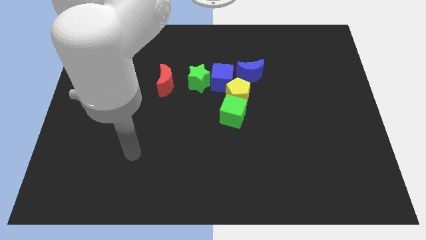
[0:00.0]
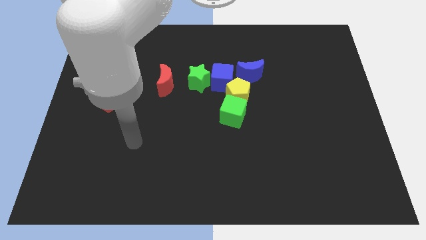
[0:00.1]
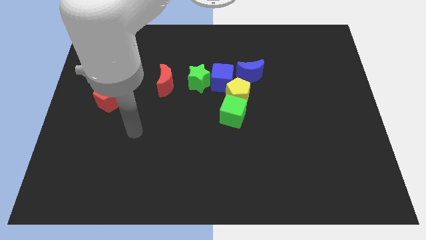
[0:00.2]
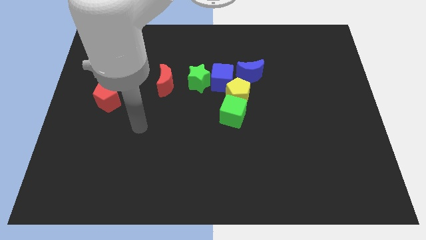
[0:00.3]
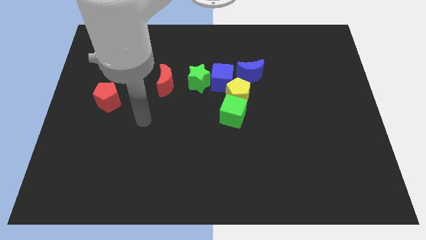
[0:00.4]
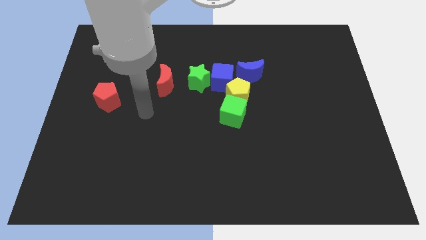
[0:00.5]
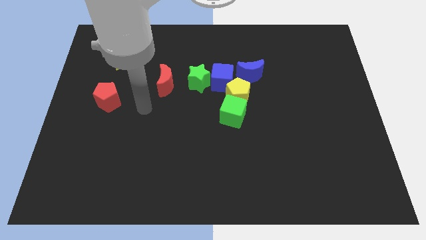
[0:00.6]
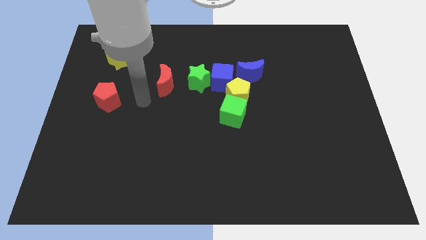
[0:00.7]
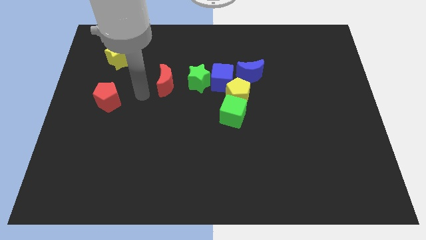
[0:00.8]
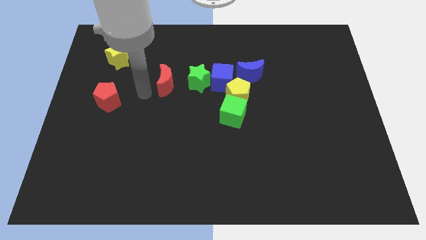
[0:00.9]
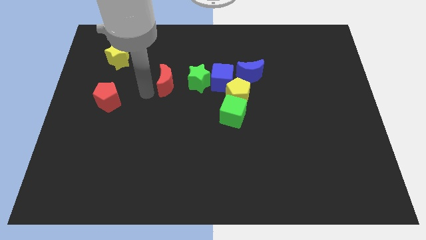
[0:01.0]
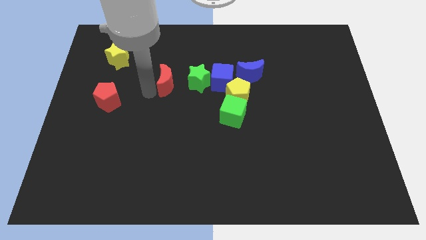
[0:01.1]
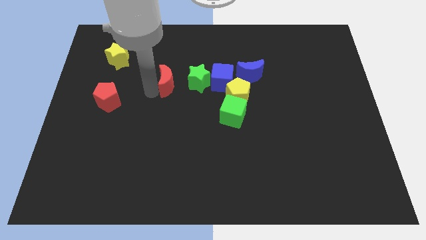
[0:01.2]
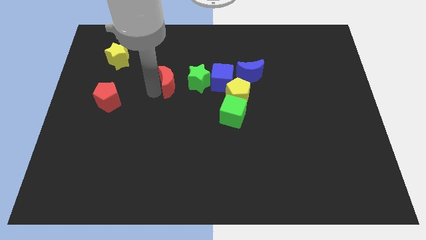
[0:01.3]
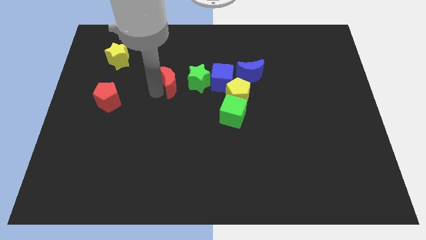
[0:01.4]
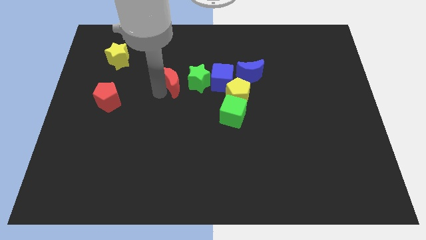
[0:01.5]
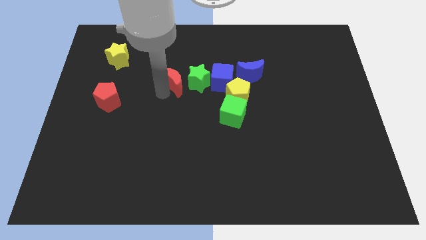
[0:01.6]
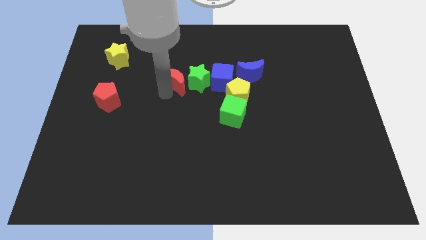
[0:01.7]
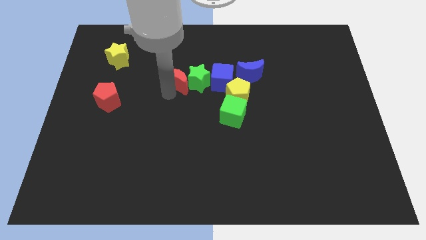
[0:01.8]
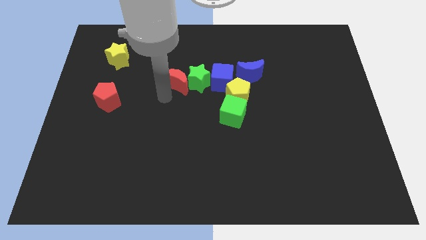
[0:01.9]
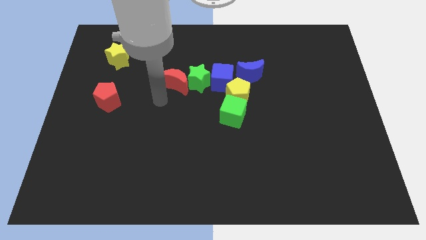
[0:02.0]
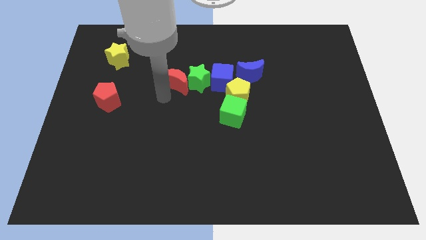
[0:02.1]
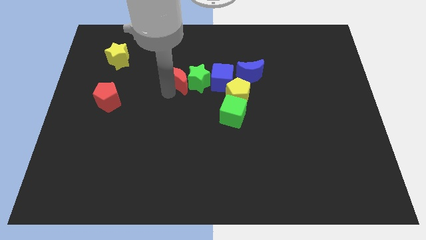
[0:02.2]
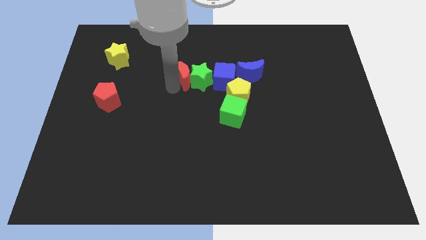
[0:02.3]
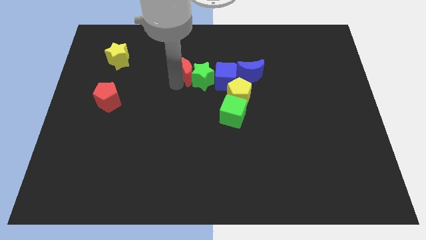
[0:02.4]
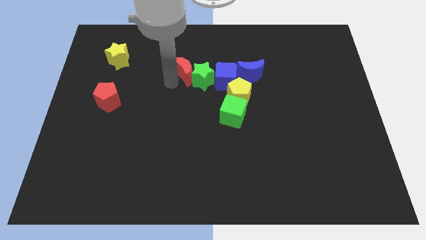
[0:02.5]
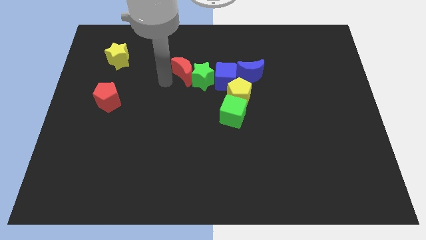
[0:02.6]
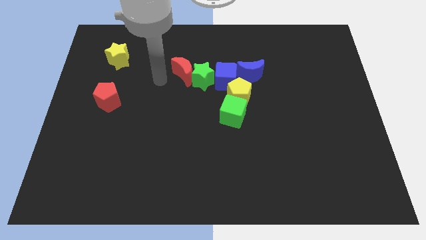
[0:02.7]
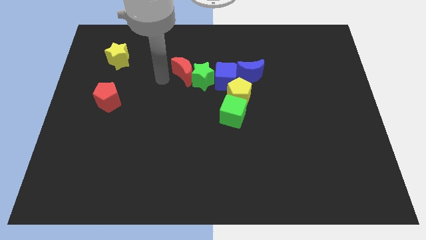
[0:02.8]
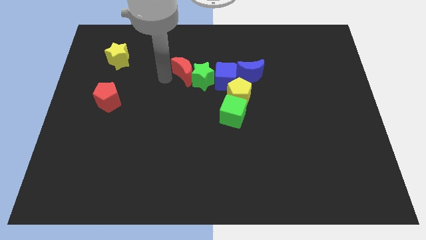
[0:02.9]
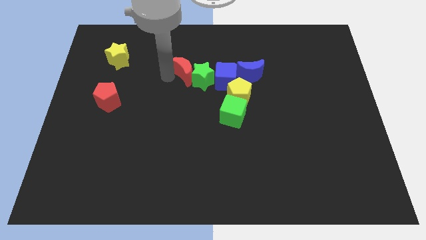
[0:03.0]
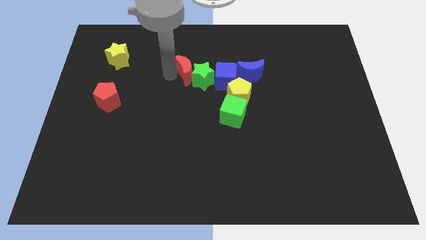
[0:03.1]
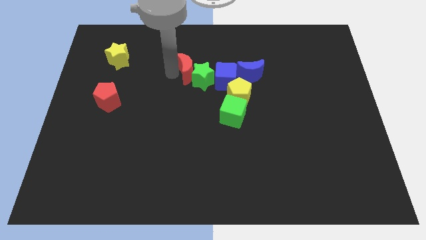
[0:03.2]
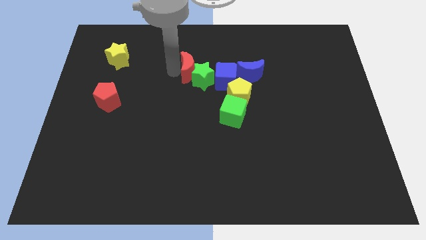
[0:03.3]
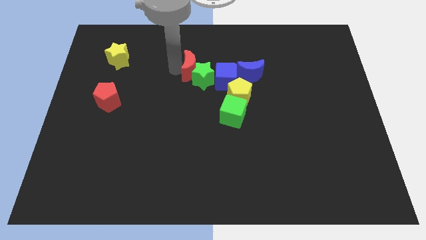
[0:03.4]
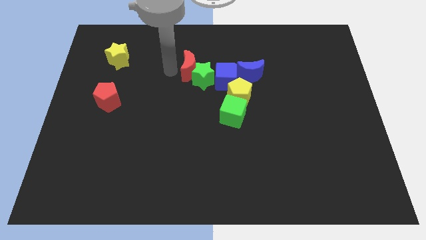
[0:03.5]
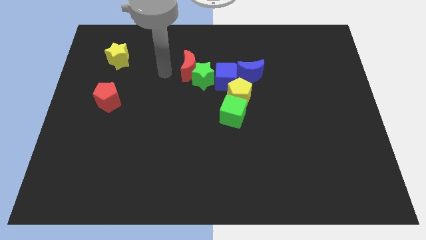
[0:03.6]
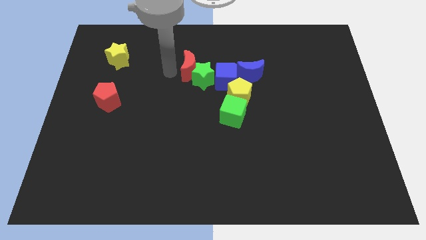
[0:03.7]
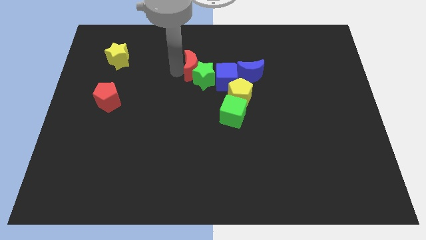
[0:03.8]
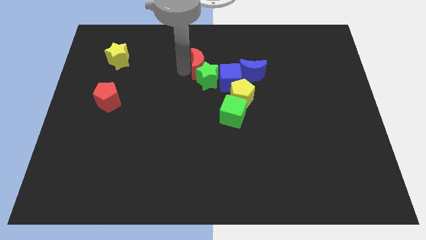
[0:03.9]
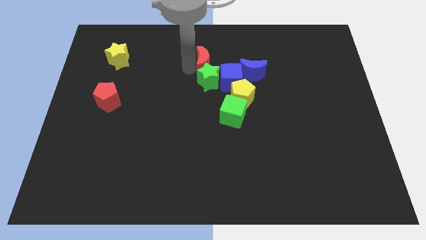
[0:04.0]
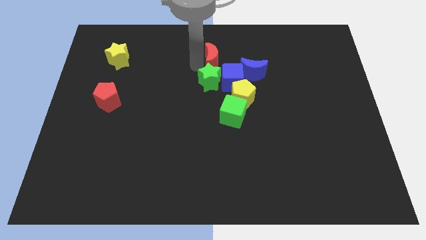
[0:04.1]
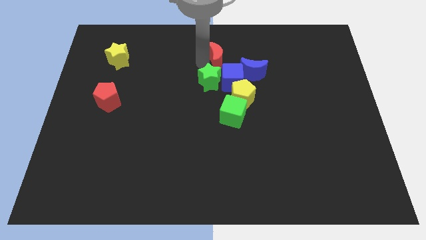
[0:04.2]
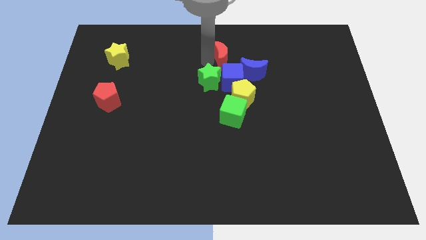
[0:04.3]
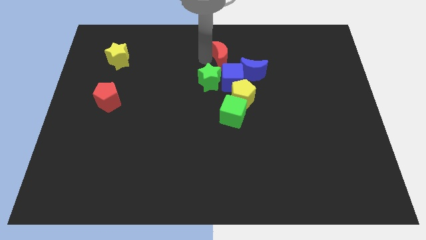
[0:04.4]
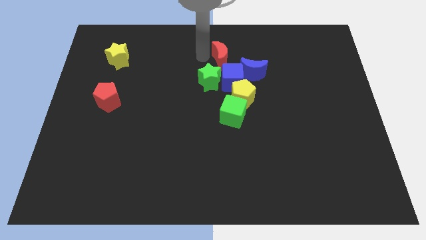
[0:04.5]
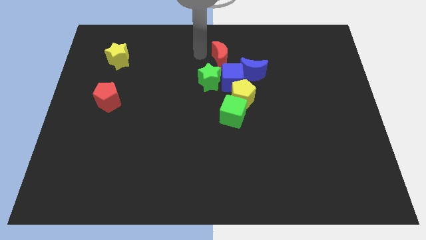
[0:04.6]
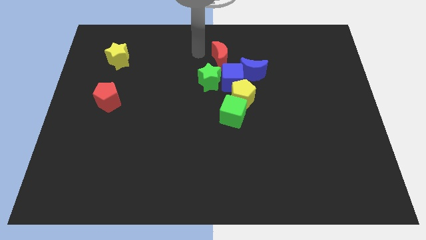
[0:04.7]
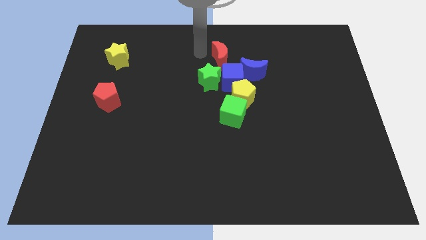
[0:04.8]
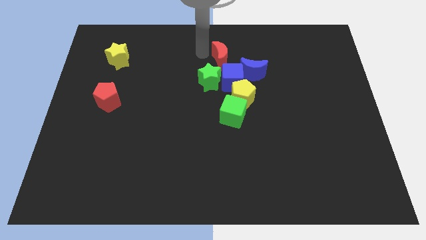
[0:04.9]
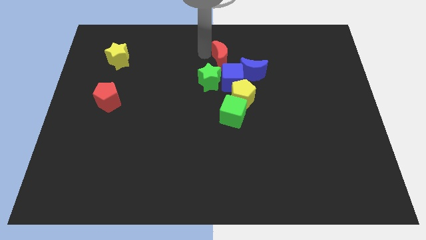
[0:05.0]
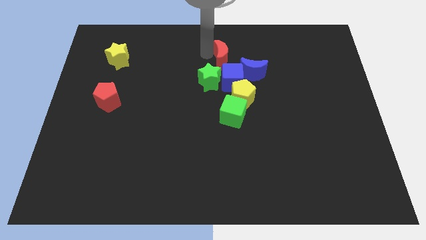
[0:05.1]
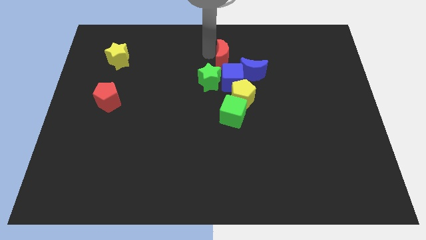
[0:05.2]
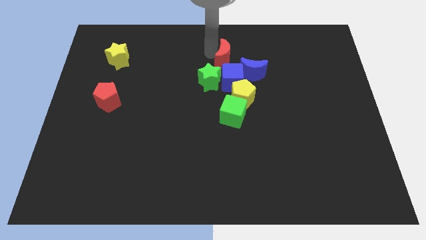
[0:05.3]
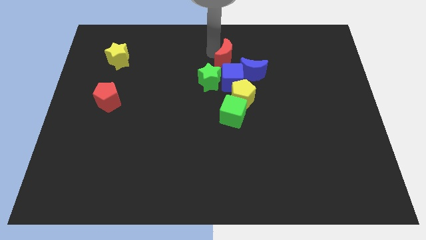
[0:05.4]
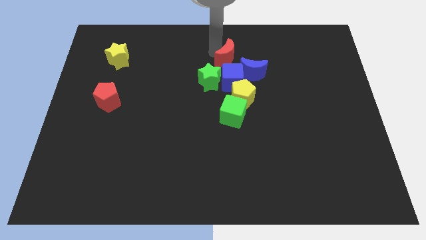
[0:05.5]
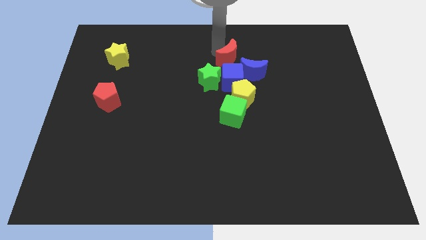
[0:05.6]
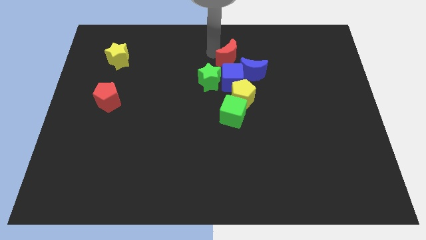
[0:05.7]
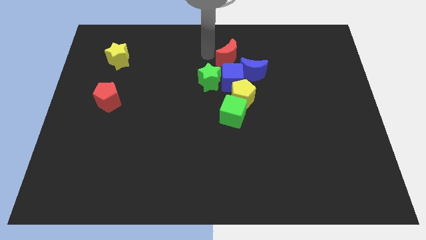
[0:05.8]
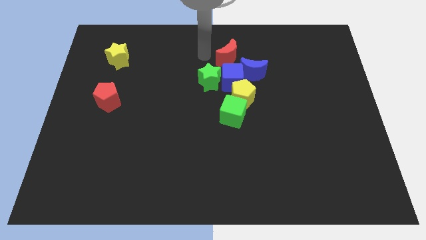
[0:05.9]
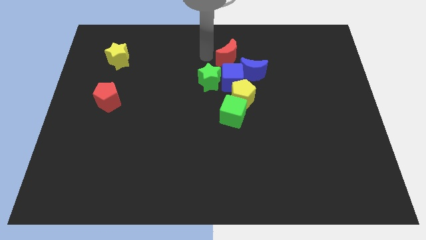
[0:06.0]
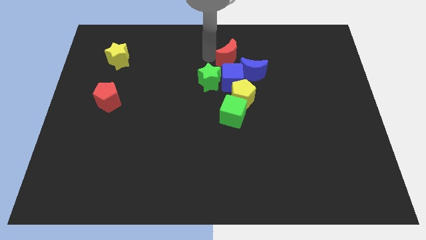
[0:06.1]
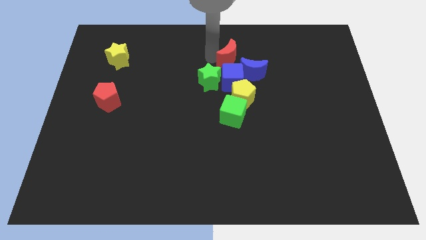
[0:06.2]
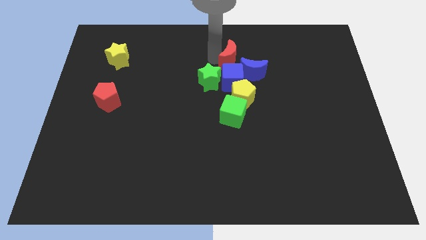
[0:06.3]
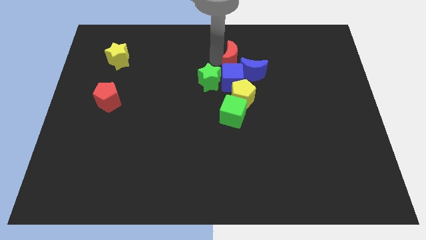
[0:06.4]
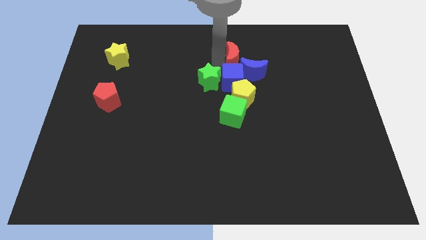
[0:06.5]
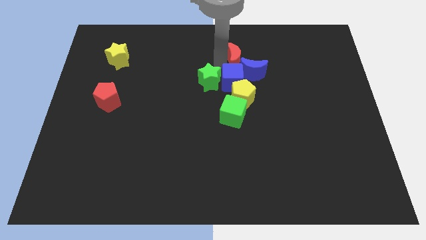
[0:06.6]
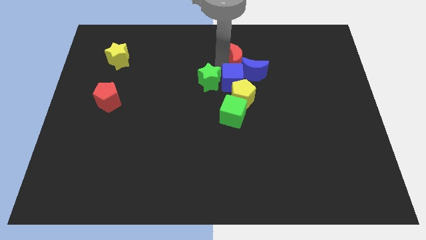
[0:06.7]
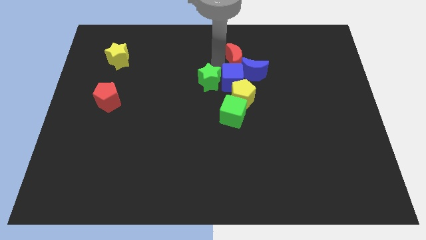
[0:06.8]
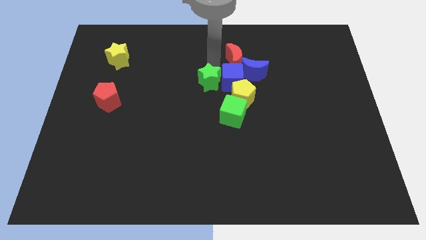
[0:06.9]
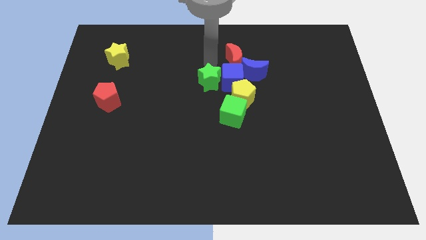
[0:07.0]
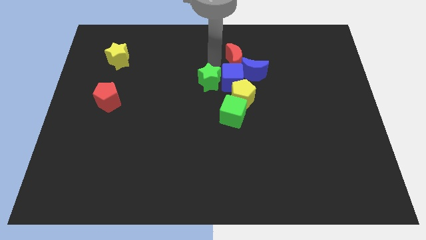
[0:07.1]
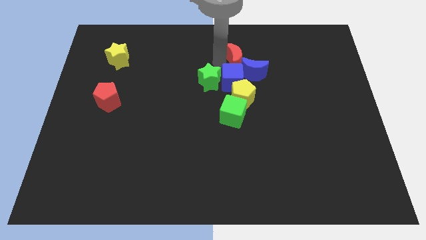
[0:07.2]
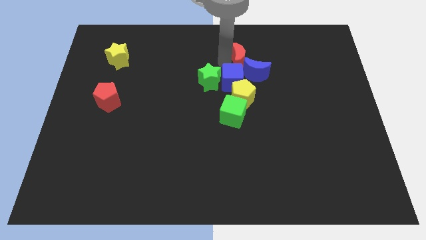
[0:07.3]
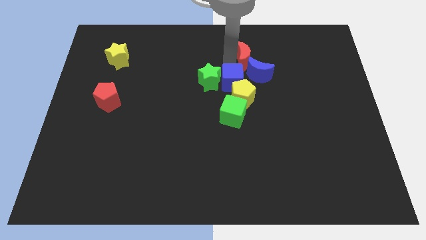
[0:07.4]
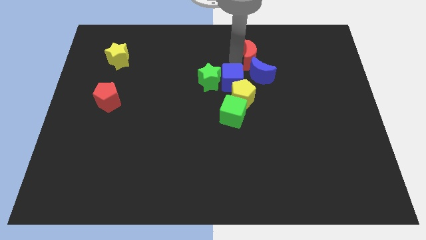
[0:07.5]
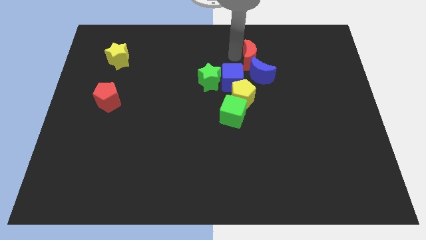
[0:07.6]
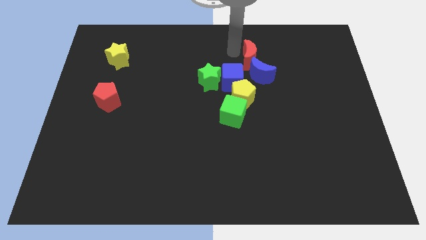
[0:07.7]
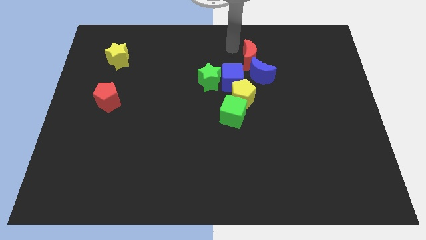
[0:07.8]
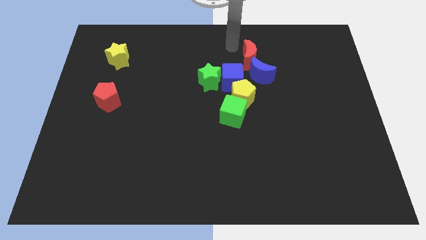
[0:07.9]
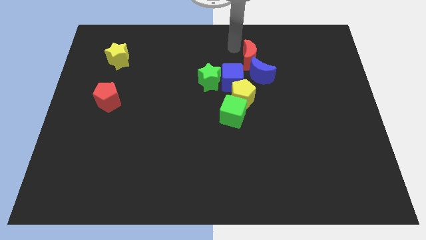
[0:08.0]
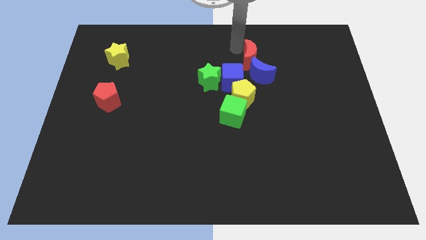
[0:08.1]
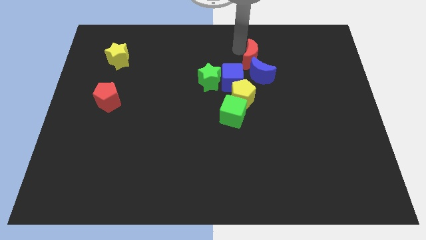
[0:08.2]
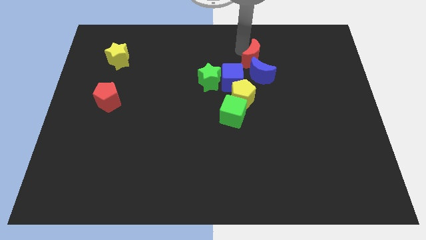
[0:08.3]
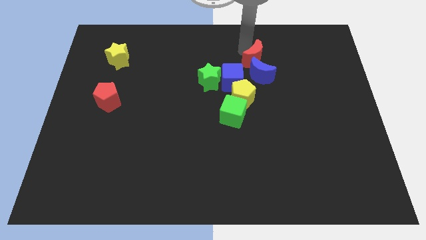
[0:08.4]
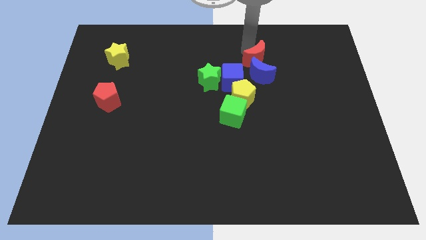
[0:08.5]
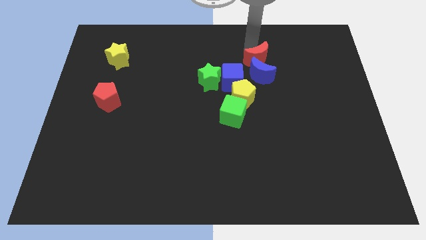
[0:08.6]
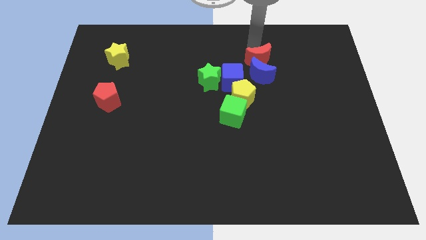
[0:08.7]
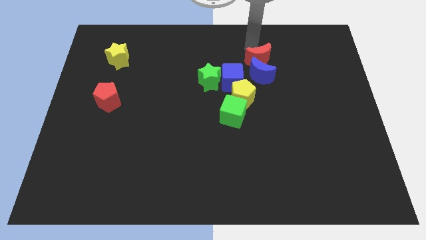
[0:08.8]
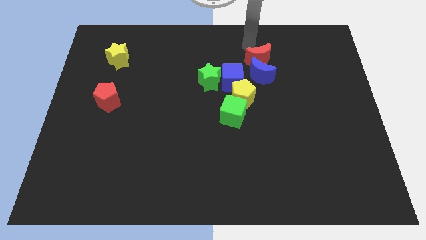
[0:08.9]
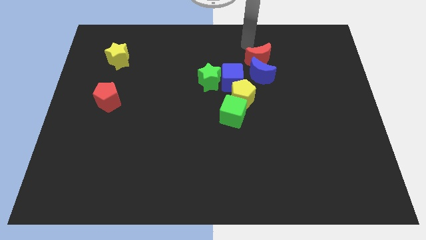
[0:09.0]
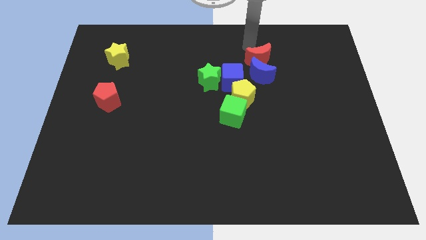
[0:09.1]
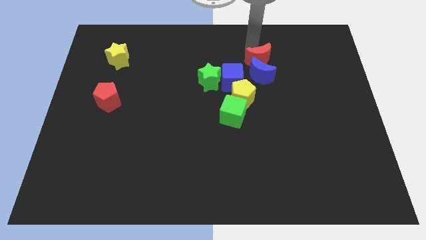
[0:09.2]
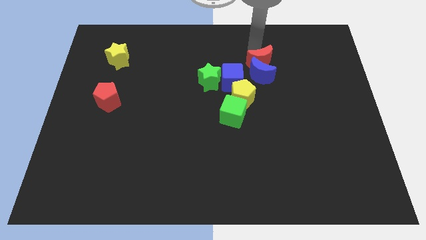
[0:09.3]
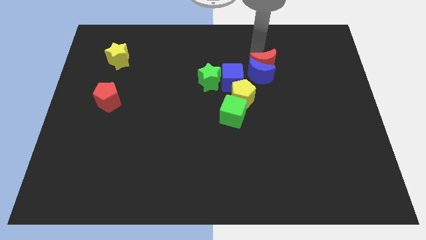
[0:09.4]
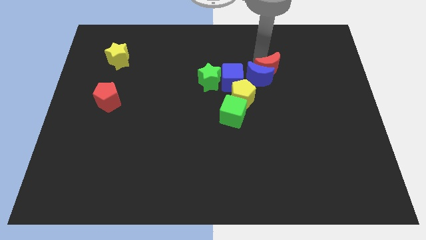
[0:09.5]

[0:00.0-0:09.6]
move the red moon to the right side of the blue cube
